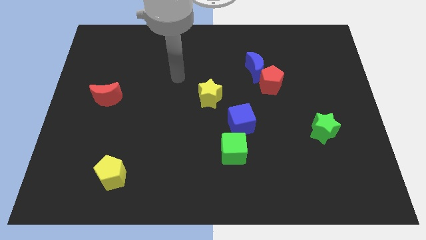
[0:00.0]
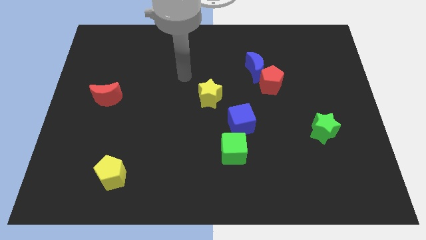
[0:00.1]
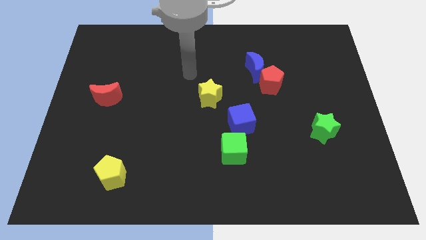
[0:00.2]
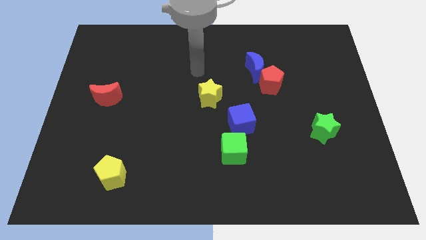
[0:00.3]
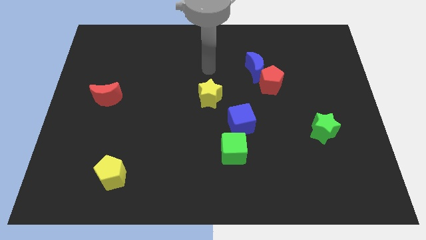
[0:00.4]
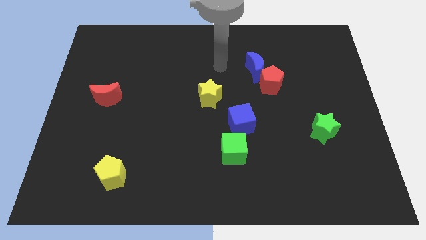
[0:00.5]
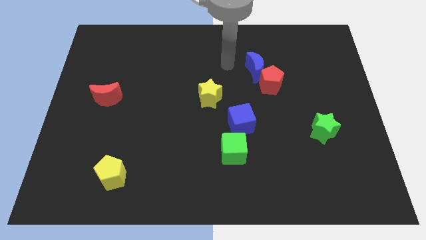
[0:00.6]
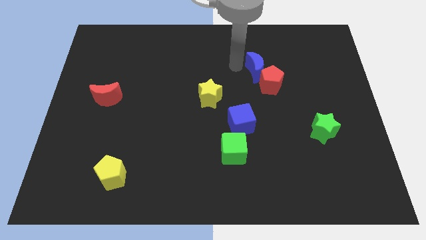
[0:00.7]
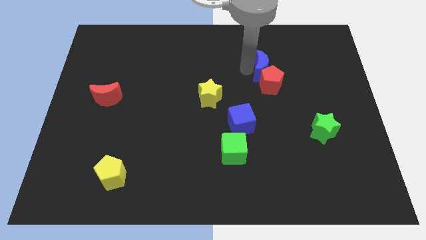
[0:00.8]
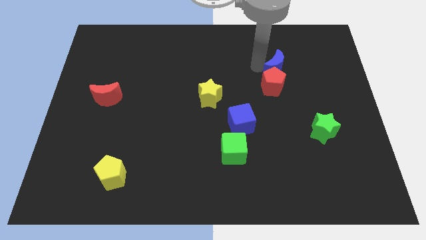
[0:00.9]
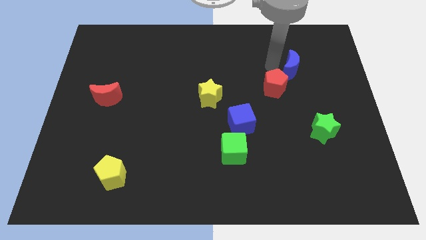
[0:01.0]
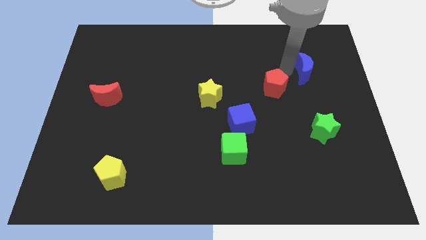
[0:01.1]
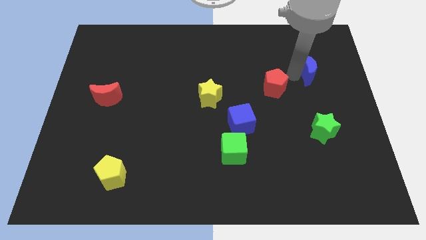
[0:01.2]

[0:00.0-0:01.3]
move the red pentagon away from the blue moon

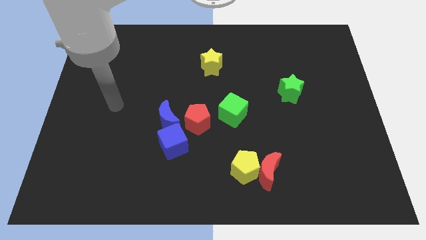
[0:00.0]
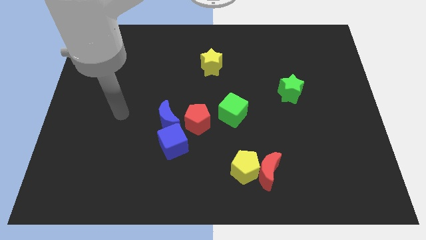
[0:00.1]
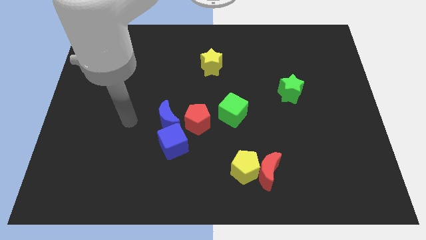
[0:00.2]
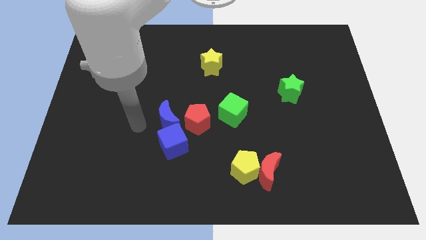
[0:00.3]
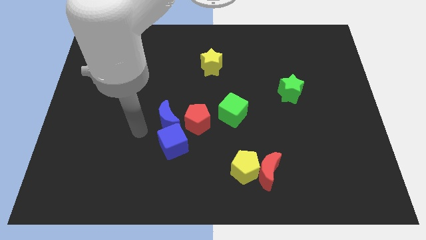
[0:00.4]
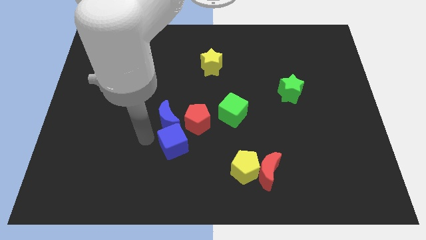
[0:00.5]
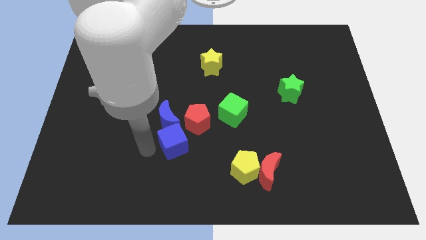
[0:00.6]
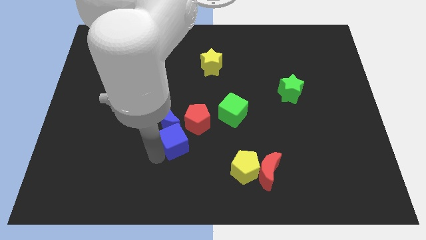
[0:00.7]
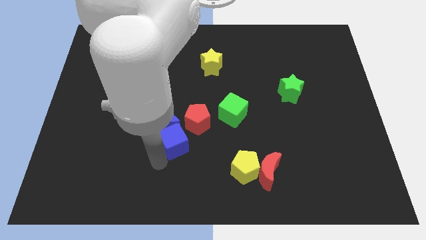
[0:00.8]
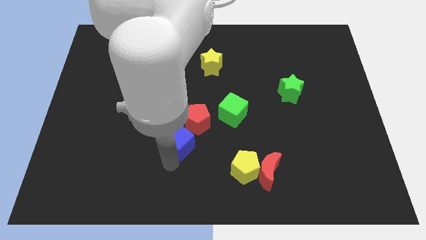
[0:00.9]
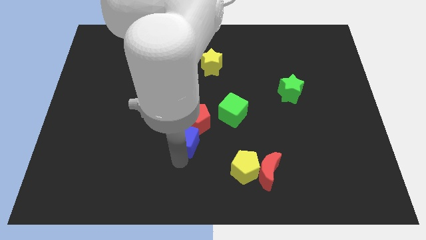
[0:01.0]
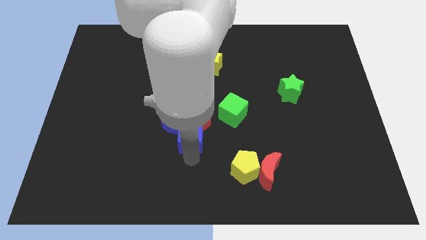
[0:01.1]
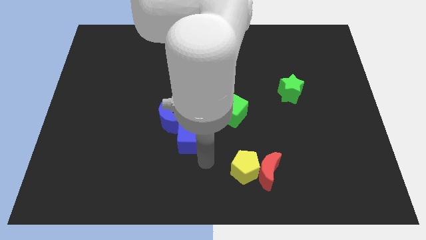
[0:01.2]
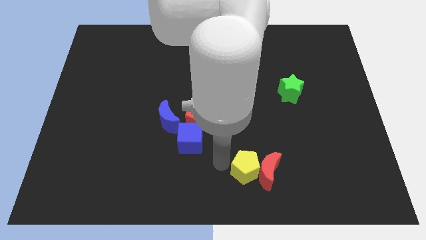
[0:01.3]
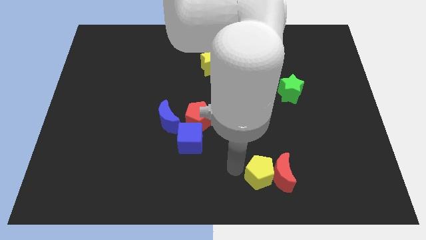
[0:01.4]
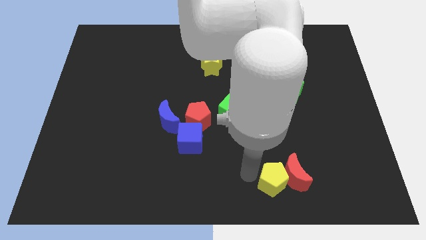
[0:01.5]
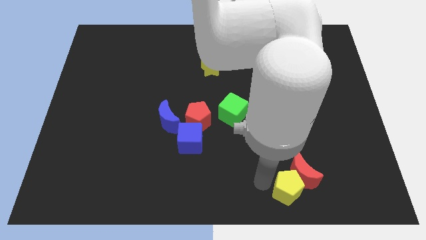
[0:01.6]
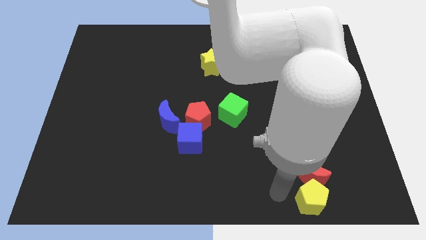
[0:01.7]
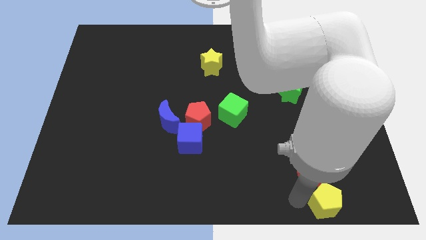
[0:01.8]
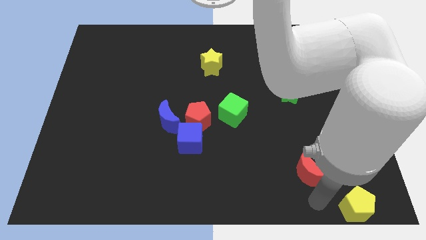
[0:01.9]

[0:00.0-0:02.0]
move the red moon away from the yellow pentagon

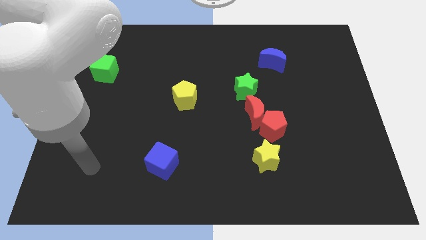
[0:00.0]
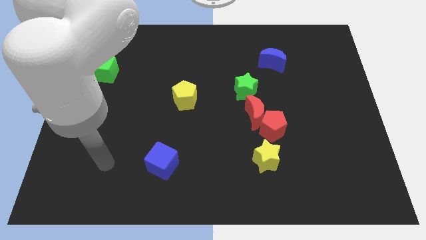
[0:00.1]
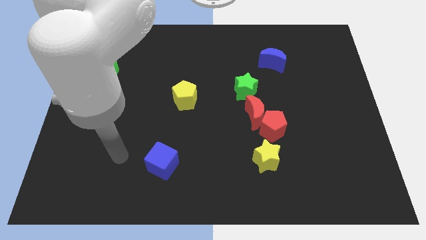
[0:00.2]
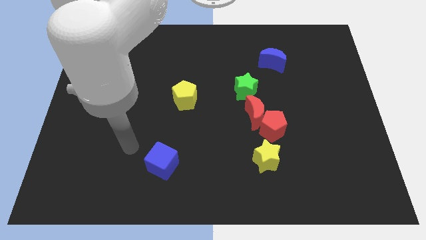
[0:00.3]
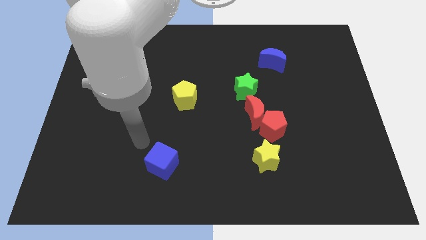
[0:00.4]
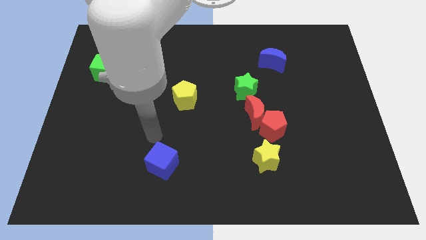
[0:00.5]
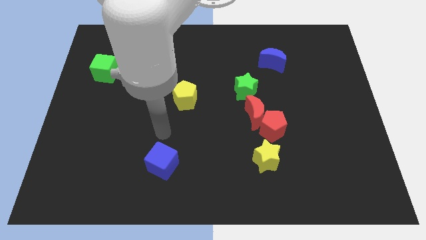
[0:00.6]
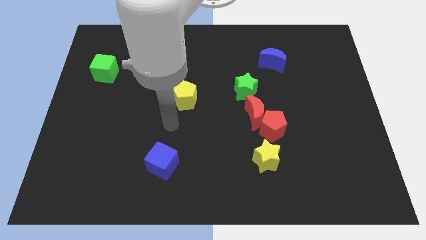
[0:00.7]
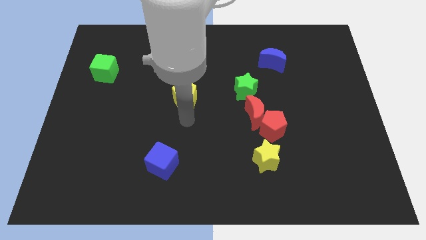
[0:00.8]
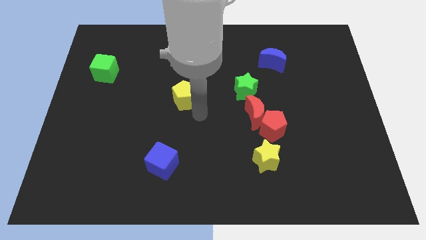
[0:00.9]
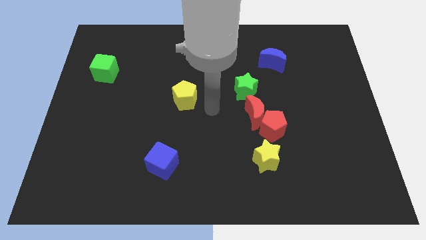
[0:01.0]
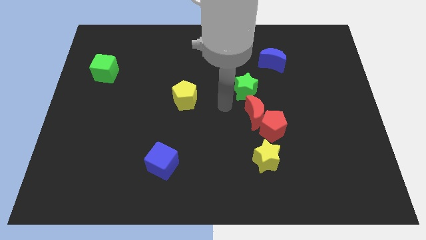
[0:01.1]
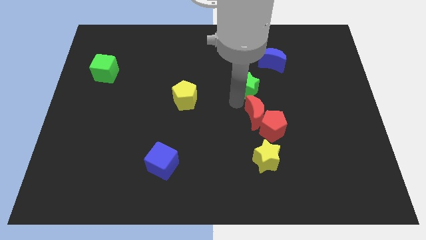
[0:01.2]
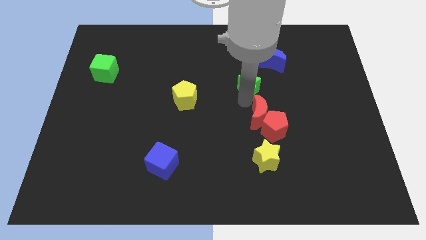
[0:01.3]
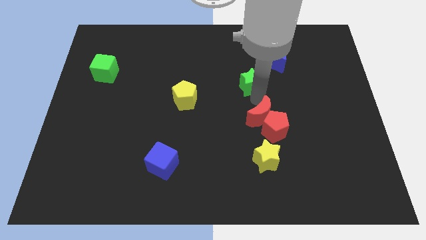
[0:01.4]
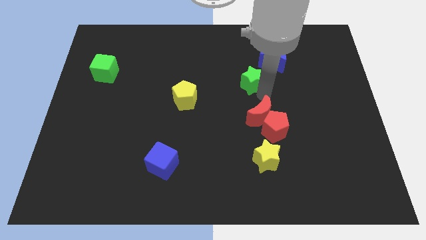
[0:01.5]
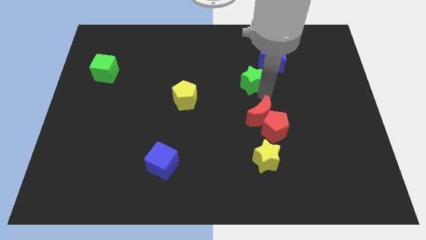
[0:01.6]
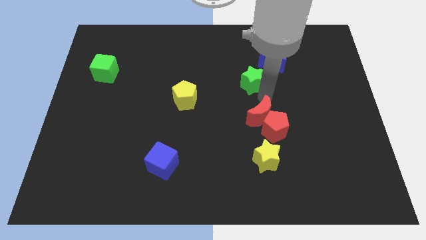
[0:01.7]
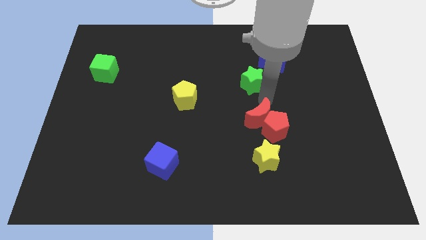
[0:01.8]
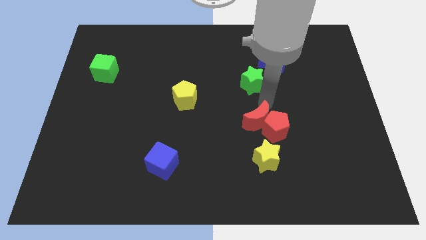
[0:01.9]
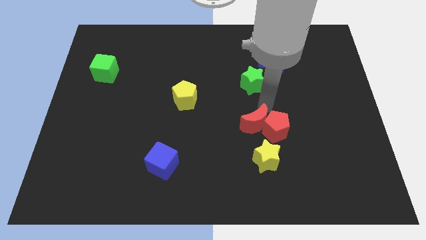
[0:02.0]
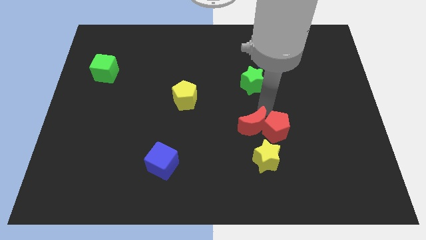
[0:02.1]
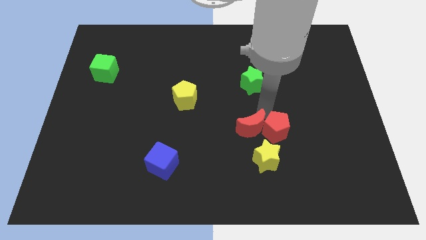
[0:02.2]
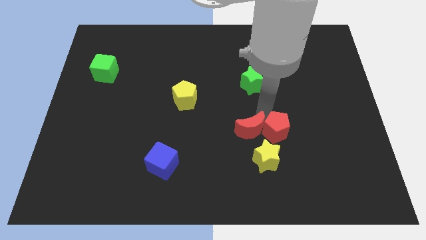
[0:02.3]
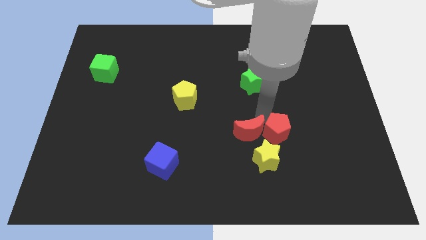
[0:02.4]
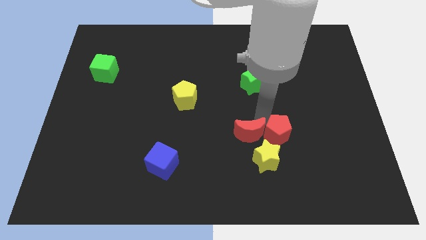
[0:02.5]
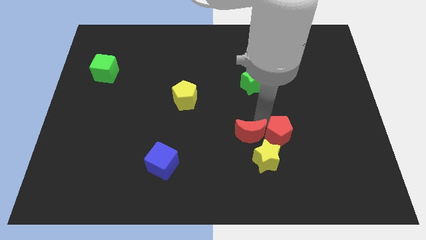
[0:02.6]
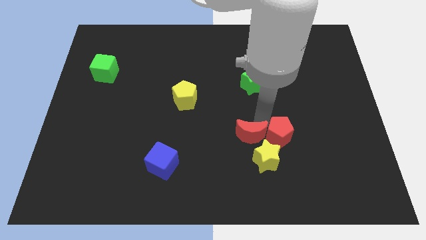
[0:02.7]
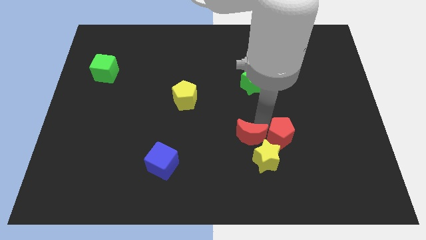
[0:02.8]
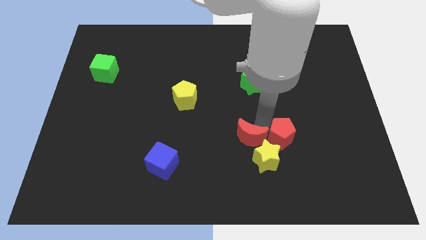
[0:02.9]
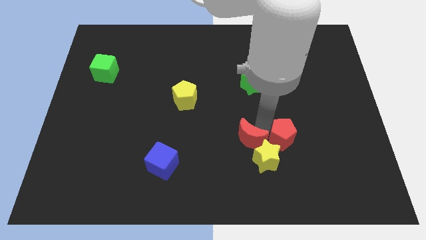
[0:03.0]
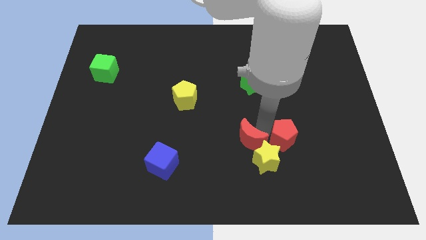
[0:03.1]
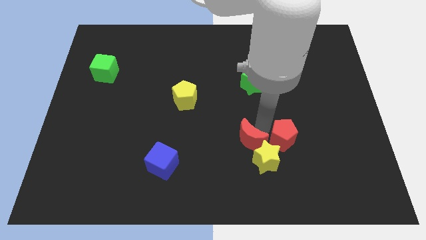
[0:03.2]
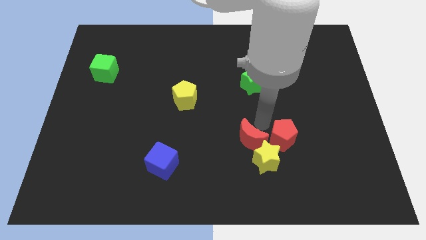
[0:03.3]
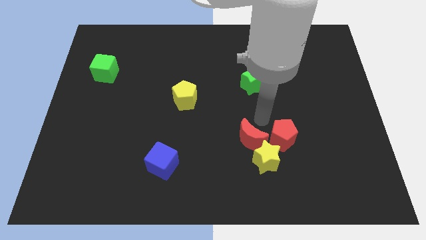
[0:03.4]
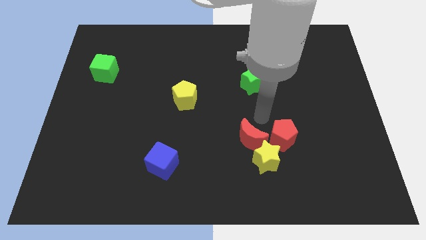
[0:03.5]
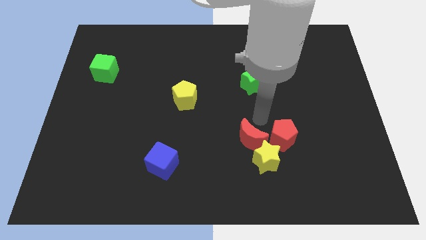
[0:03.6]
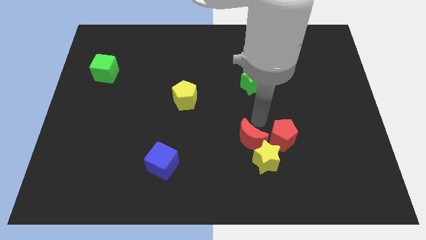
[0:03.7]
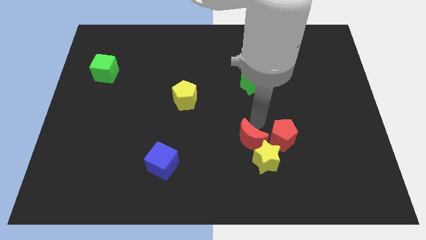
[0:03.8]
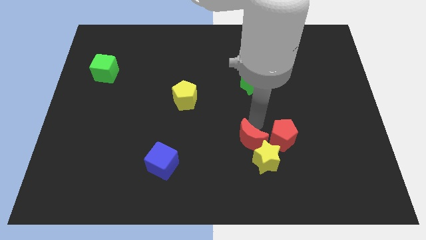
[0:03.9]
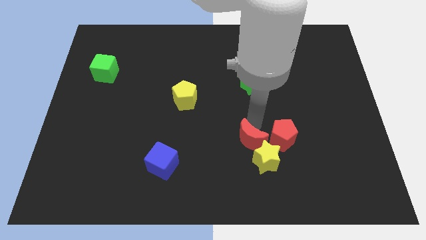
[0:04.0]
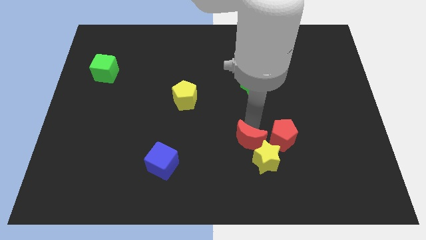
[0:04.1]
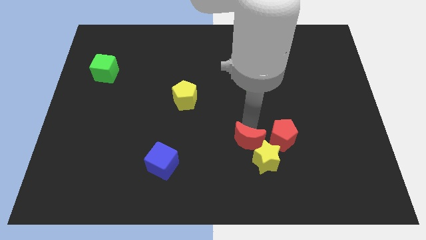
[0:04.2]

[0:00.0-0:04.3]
separate the red moon from the red pentagon and green star

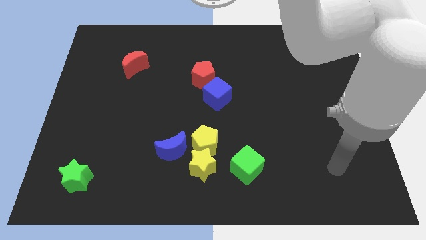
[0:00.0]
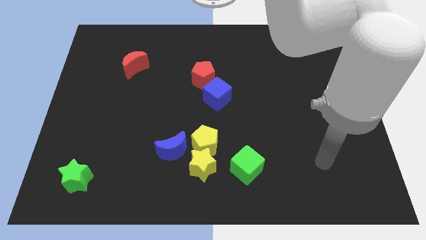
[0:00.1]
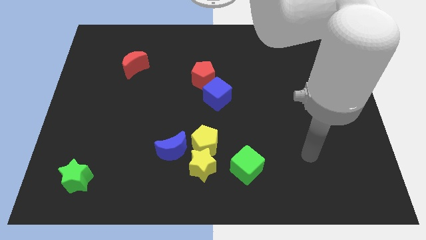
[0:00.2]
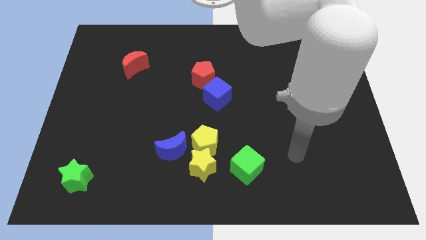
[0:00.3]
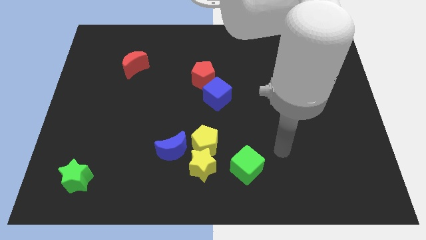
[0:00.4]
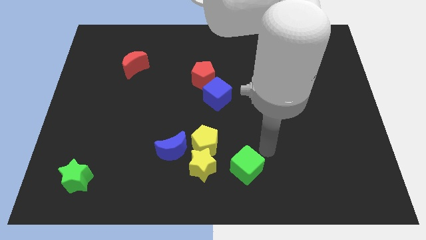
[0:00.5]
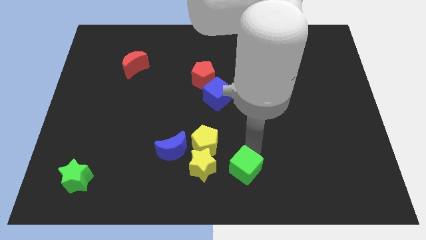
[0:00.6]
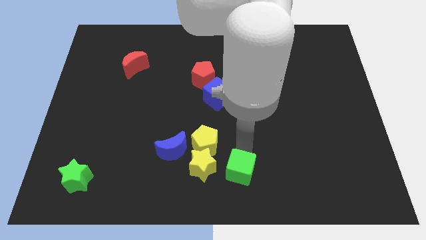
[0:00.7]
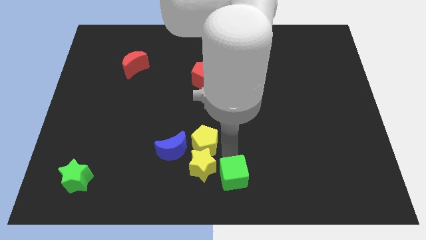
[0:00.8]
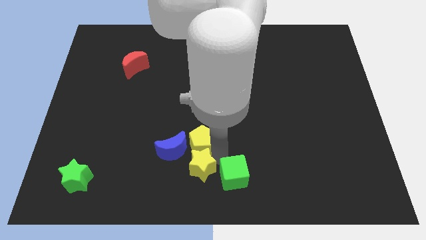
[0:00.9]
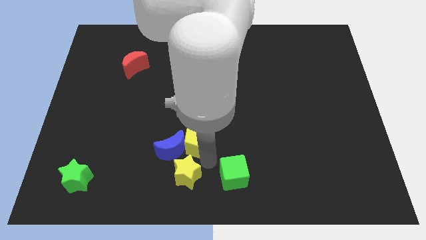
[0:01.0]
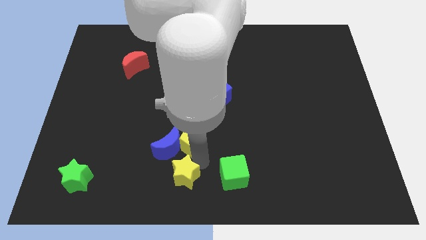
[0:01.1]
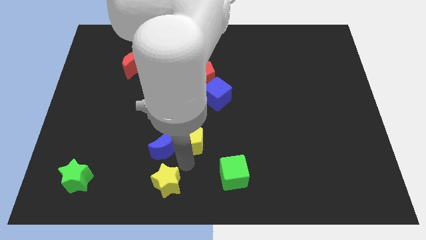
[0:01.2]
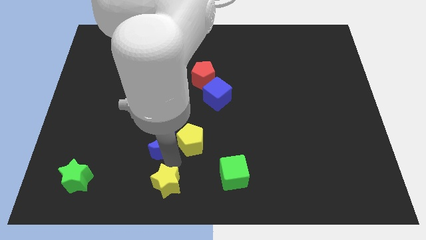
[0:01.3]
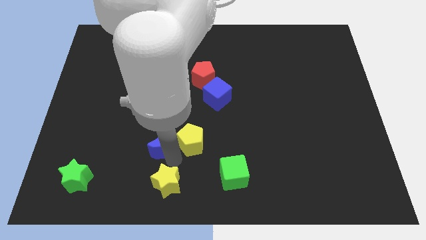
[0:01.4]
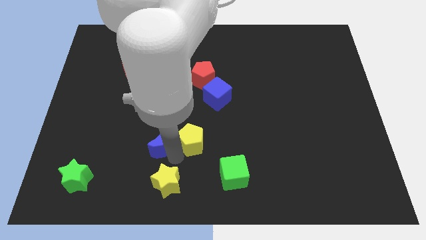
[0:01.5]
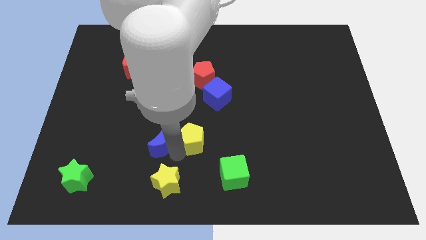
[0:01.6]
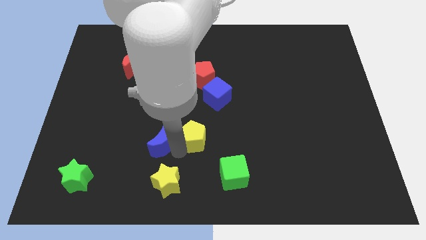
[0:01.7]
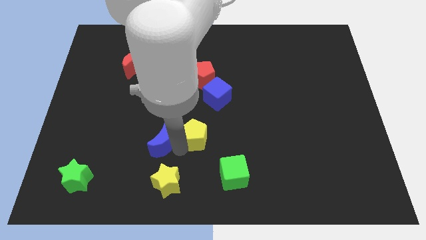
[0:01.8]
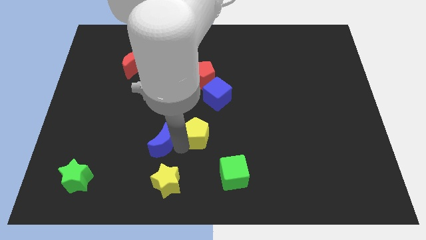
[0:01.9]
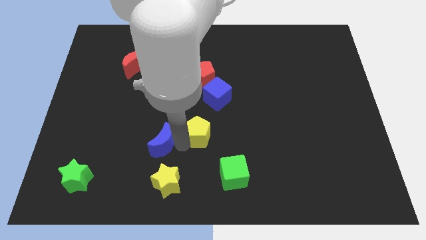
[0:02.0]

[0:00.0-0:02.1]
move the yellow pentagon away from the yellow star and blue moon
